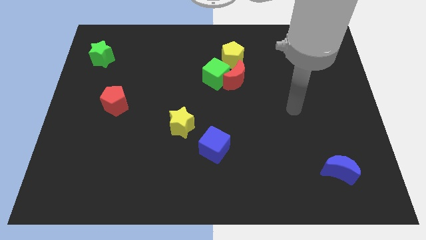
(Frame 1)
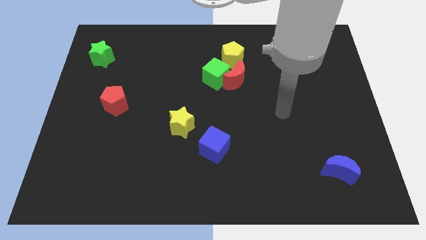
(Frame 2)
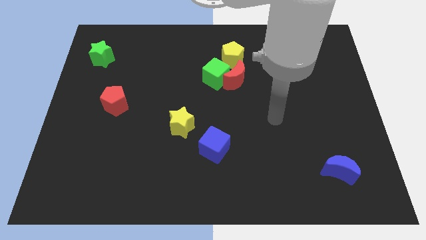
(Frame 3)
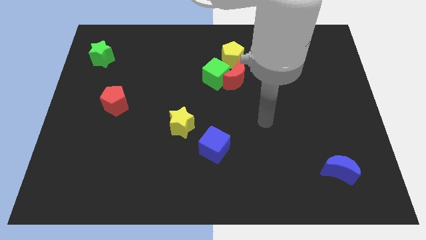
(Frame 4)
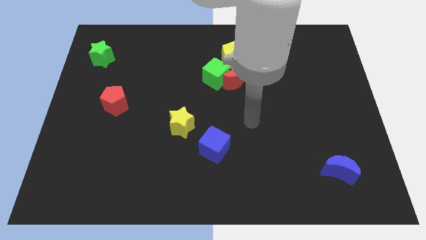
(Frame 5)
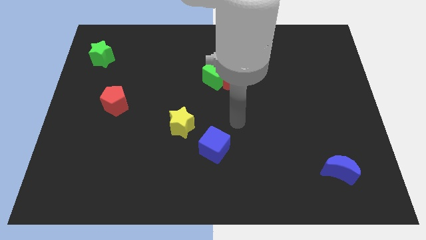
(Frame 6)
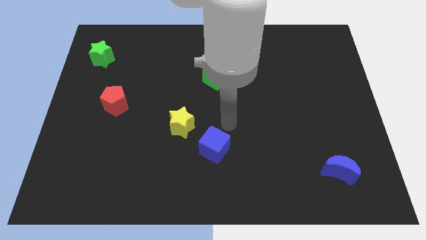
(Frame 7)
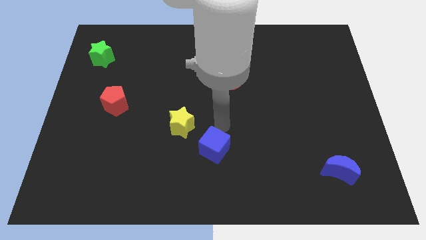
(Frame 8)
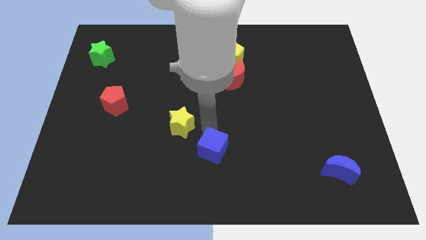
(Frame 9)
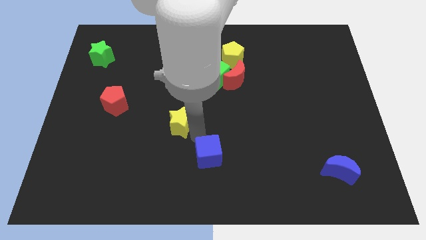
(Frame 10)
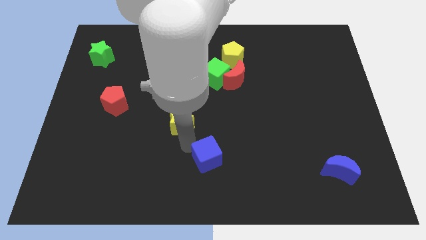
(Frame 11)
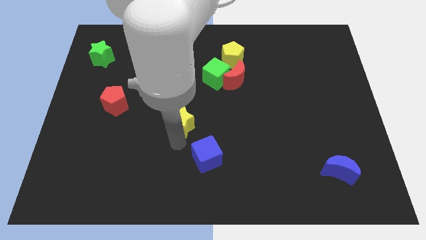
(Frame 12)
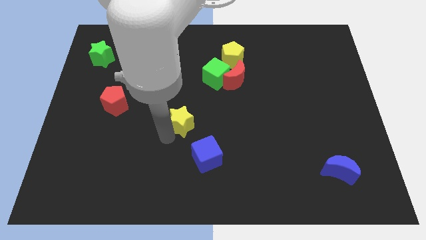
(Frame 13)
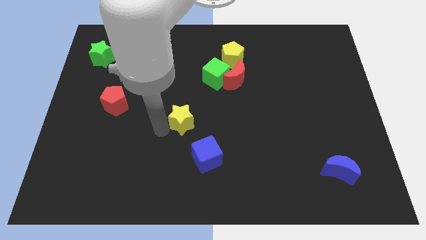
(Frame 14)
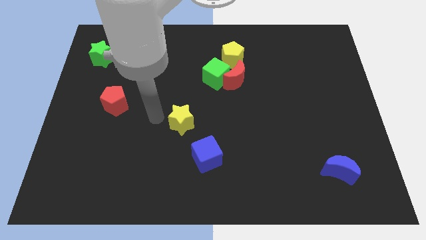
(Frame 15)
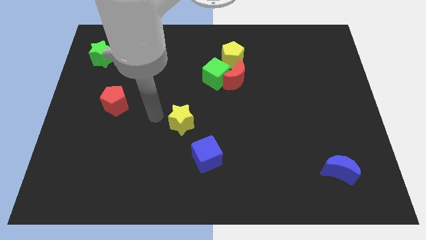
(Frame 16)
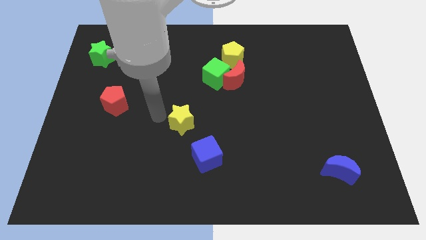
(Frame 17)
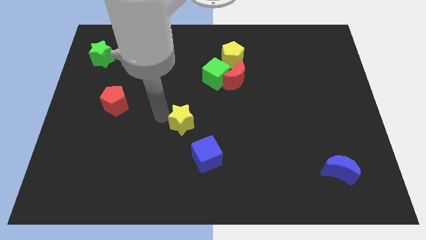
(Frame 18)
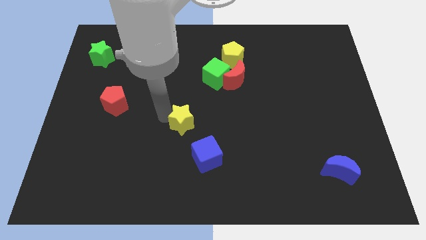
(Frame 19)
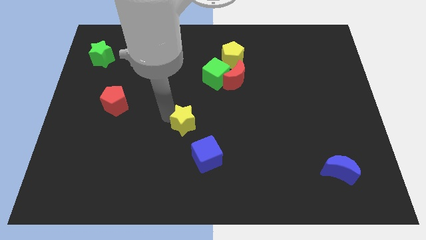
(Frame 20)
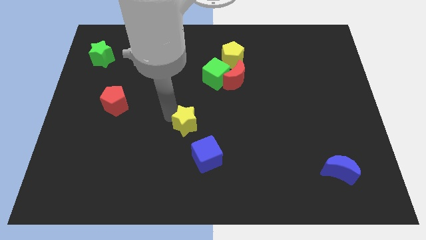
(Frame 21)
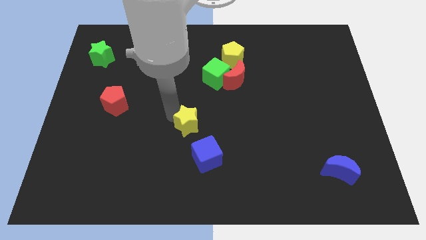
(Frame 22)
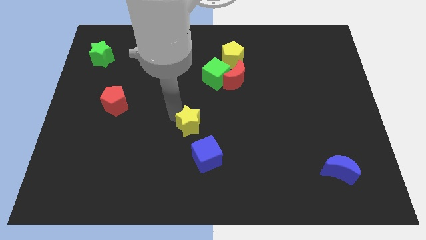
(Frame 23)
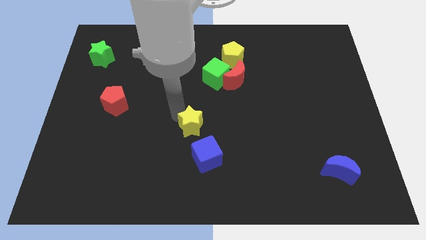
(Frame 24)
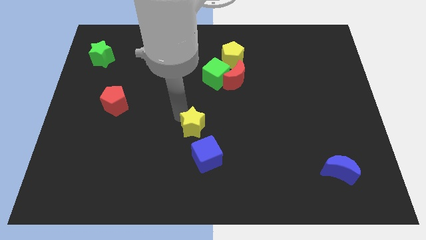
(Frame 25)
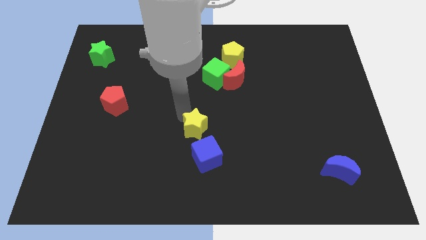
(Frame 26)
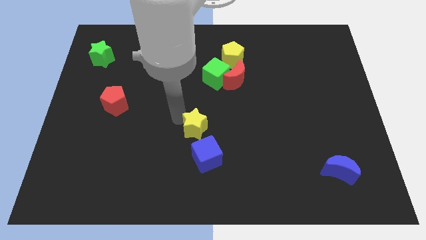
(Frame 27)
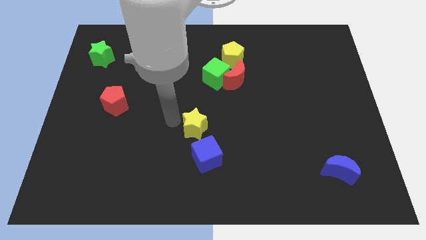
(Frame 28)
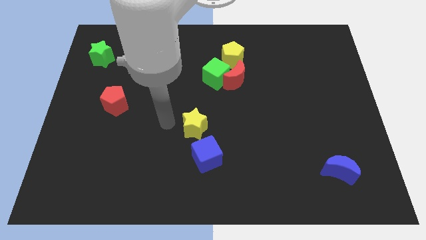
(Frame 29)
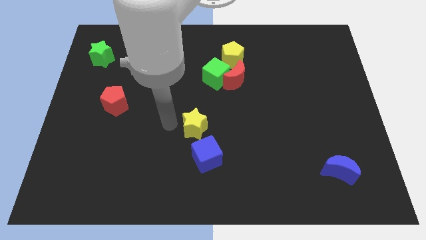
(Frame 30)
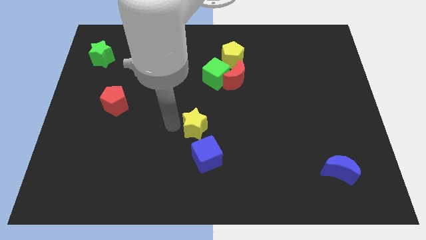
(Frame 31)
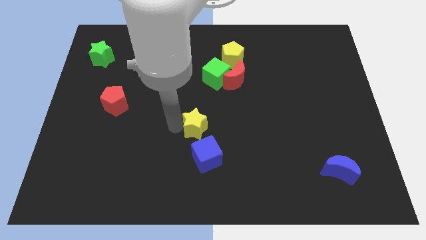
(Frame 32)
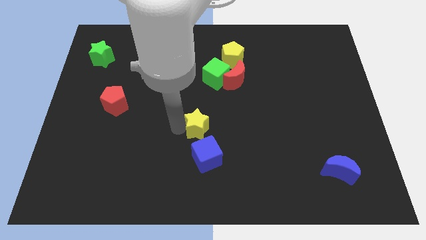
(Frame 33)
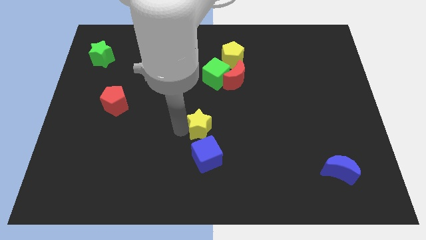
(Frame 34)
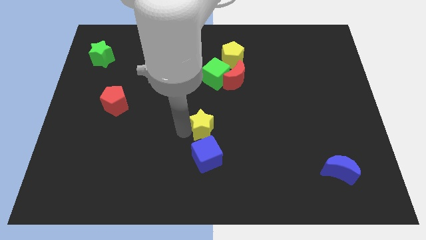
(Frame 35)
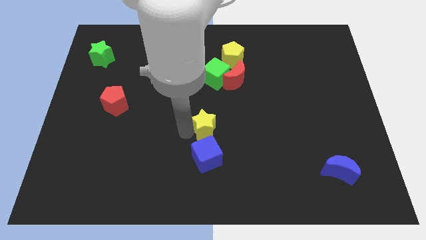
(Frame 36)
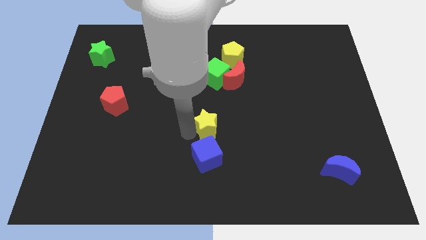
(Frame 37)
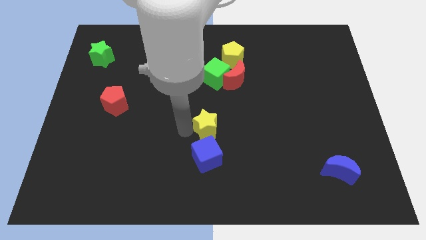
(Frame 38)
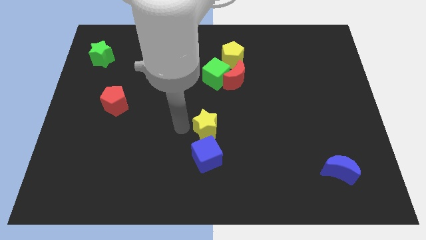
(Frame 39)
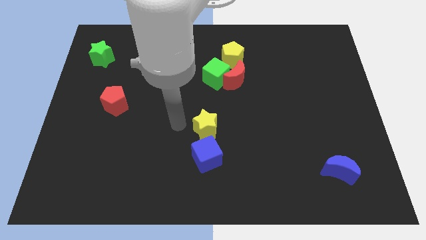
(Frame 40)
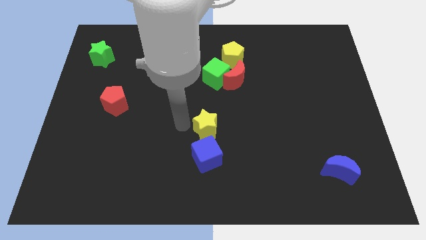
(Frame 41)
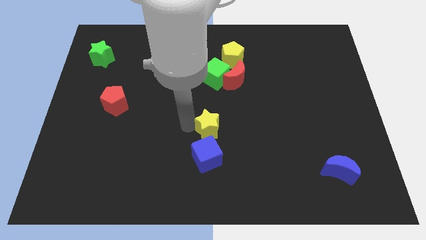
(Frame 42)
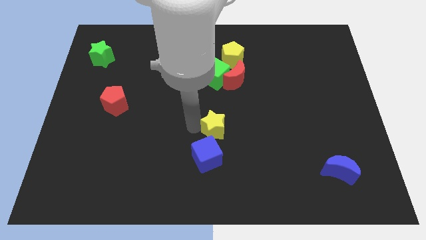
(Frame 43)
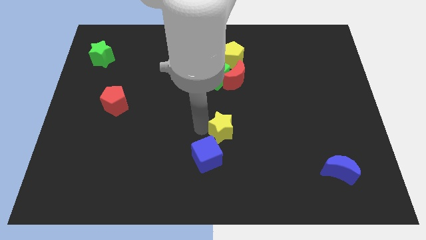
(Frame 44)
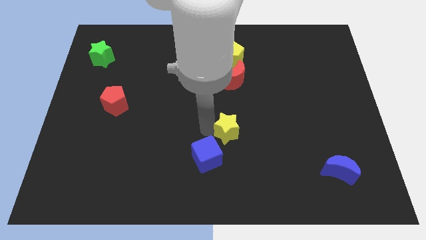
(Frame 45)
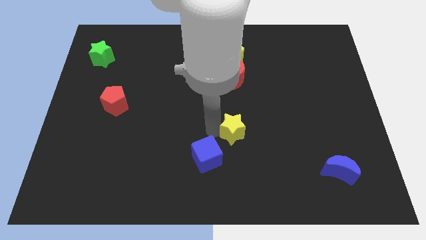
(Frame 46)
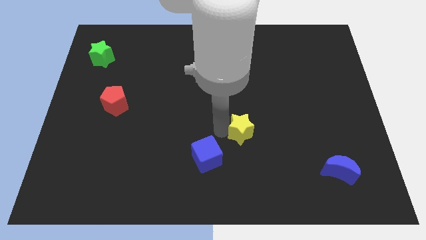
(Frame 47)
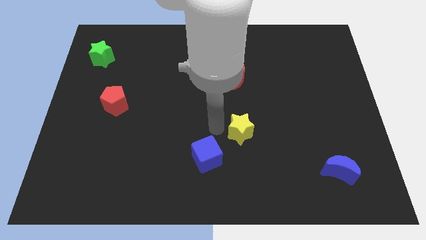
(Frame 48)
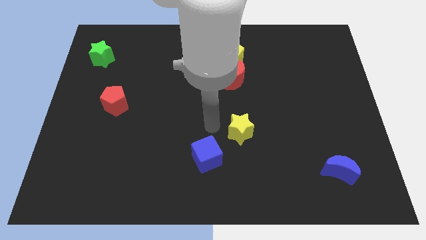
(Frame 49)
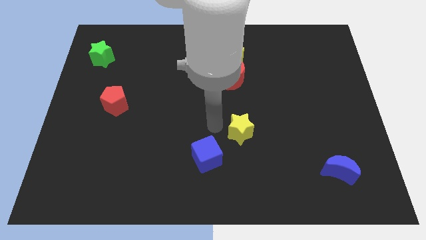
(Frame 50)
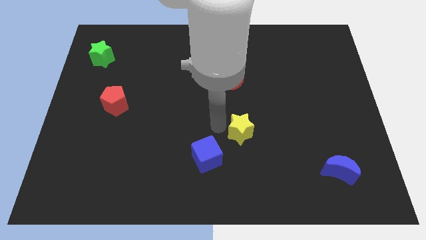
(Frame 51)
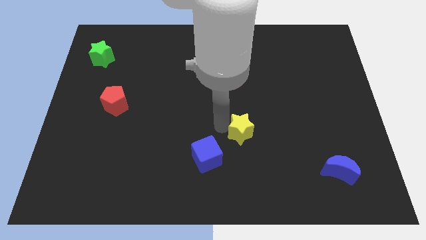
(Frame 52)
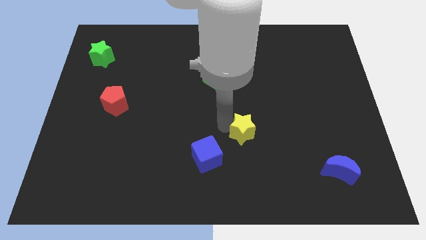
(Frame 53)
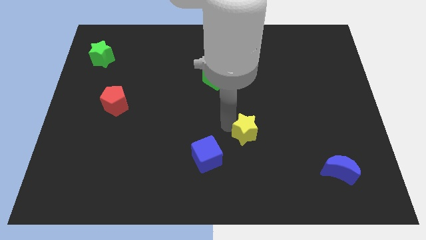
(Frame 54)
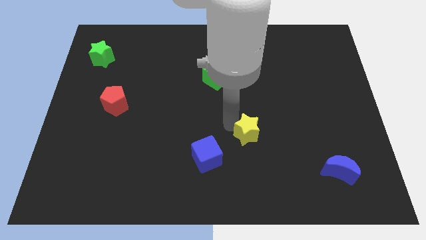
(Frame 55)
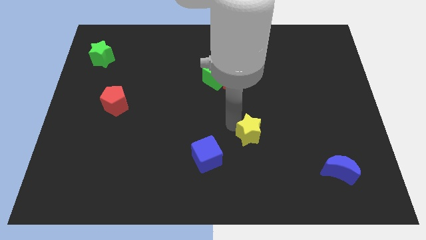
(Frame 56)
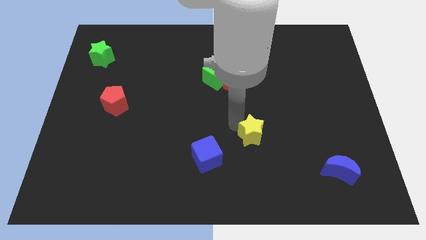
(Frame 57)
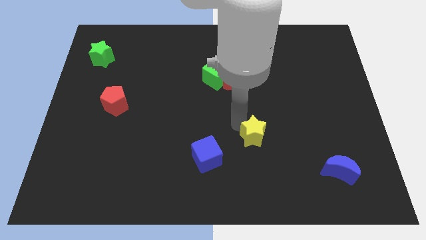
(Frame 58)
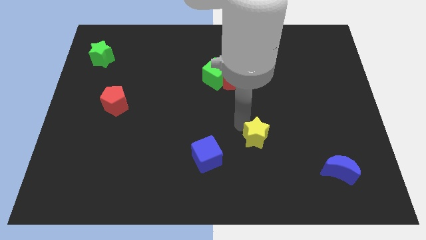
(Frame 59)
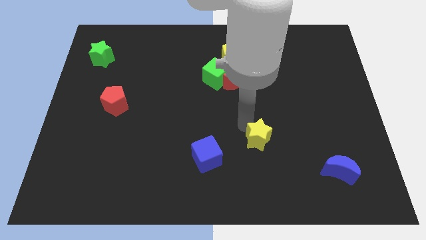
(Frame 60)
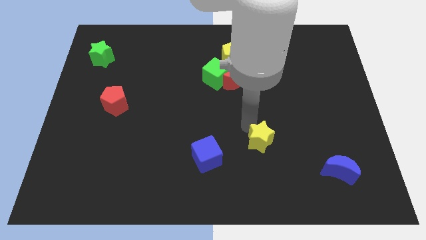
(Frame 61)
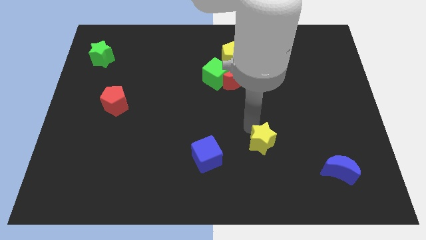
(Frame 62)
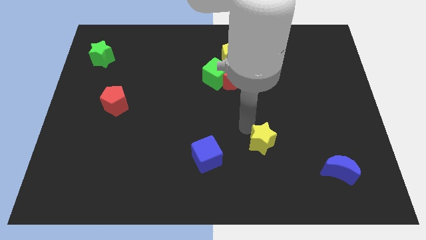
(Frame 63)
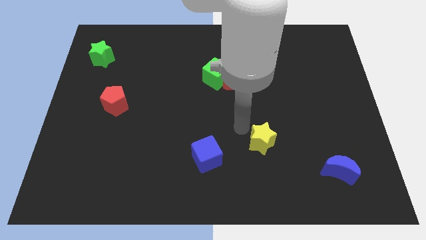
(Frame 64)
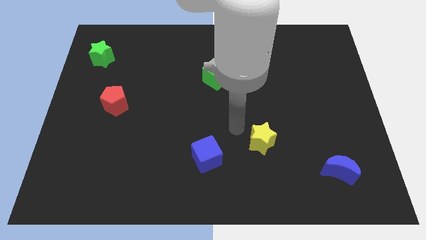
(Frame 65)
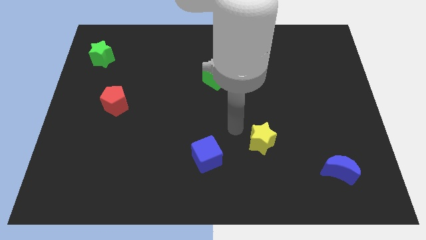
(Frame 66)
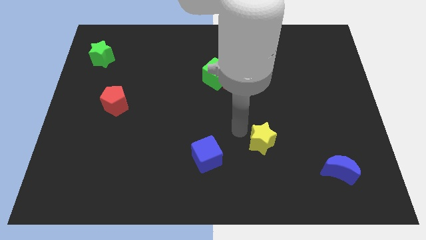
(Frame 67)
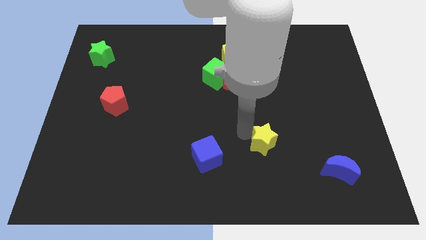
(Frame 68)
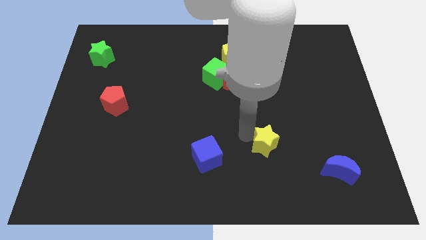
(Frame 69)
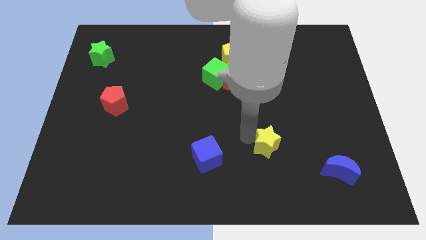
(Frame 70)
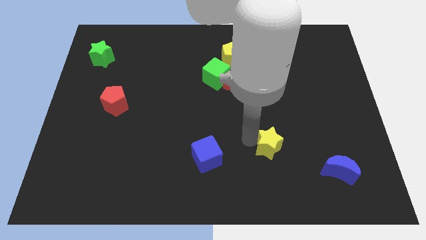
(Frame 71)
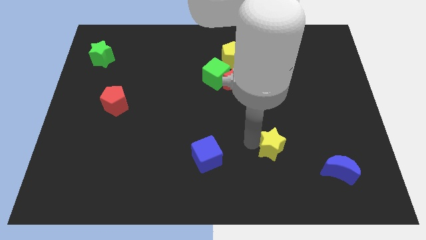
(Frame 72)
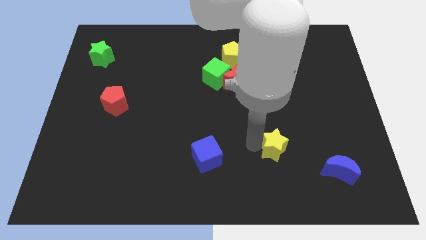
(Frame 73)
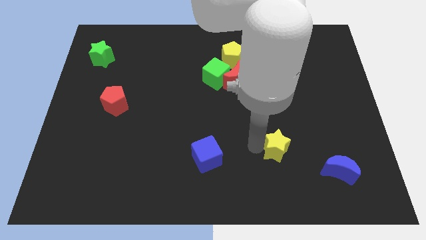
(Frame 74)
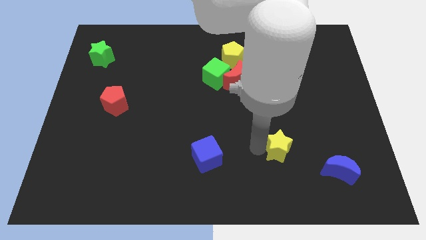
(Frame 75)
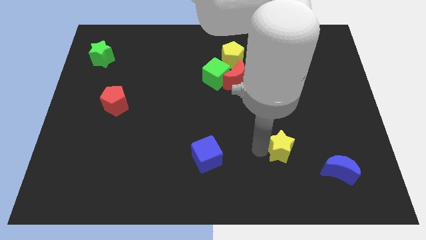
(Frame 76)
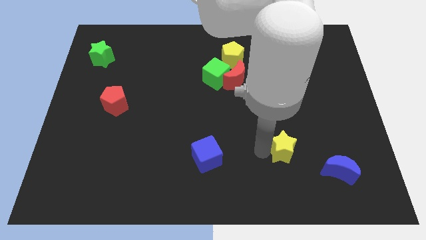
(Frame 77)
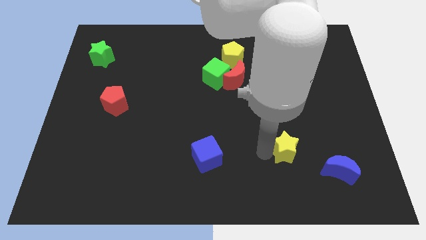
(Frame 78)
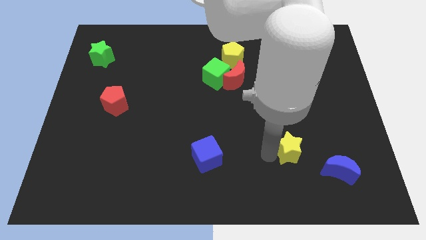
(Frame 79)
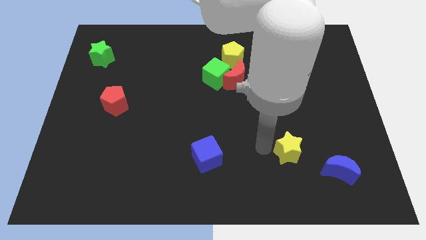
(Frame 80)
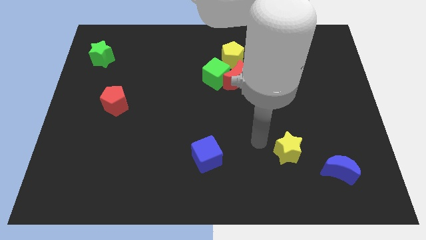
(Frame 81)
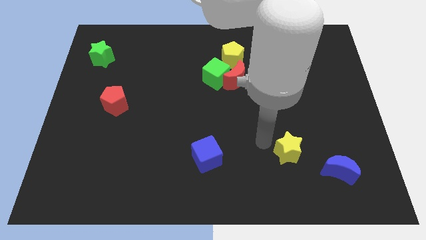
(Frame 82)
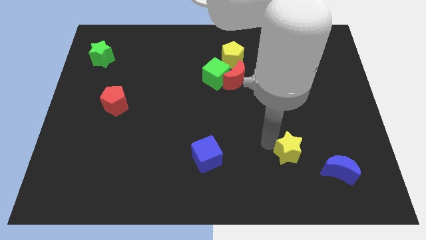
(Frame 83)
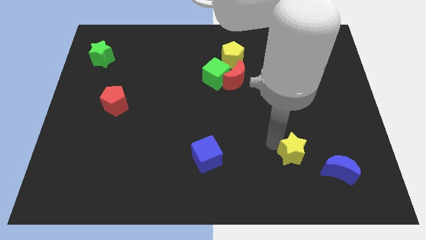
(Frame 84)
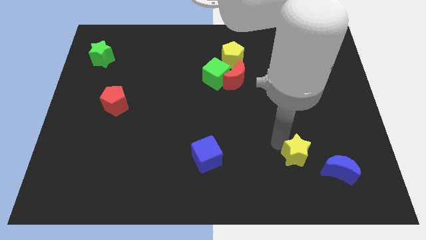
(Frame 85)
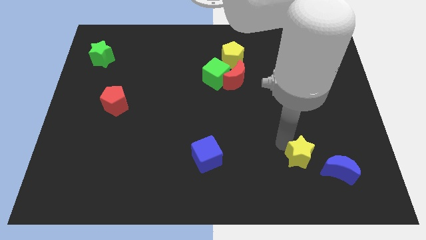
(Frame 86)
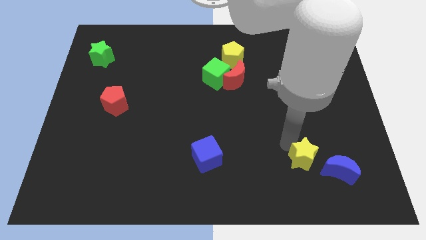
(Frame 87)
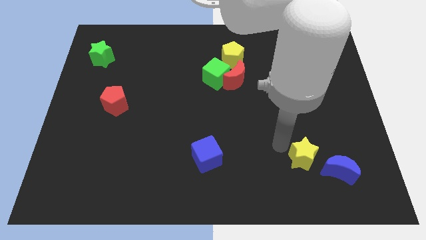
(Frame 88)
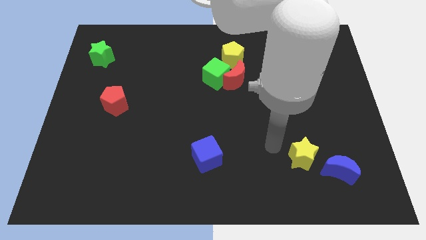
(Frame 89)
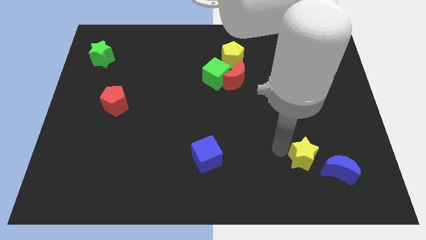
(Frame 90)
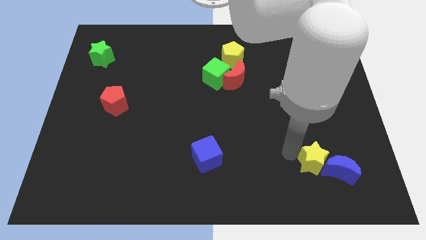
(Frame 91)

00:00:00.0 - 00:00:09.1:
move the yellow star next to the blue moon
